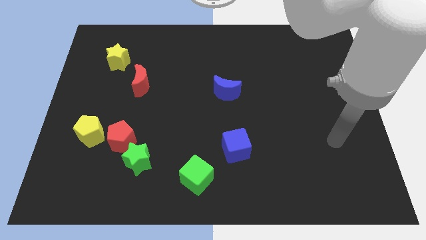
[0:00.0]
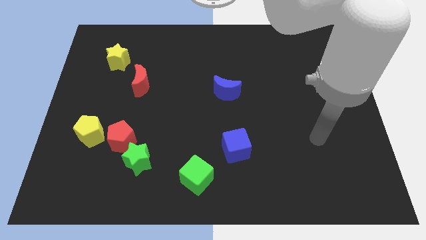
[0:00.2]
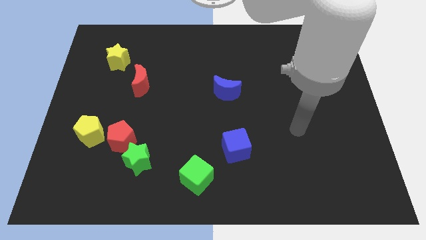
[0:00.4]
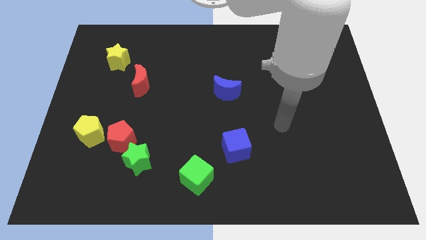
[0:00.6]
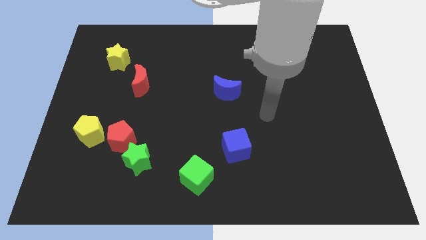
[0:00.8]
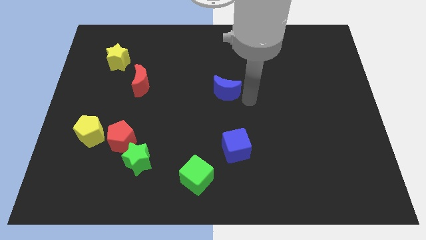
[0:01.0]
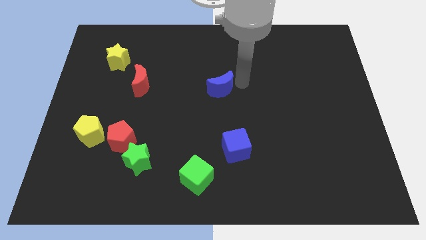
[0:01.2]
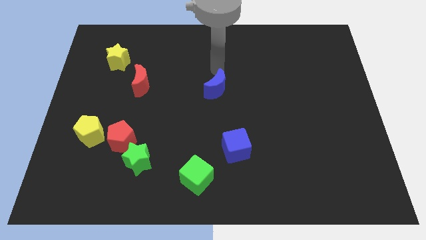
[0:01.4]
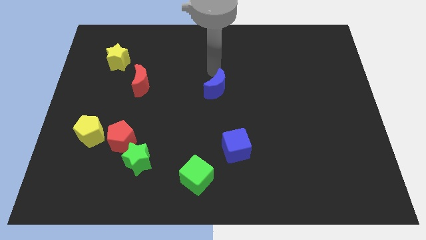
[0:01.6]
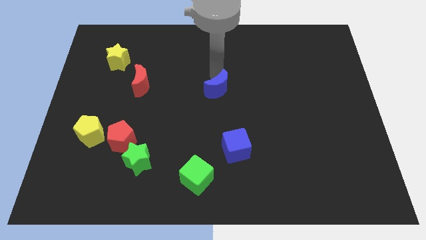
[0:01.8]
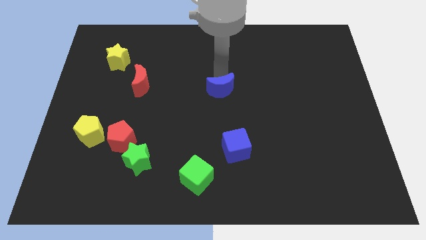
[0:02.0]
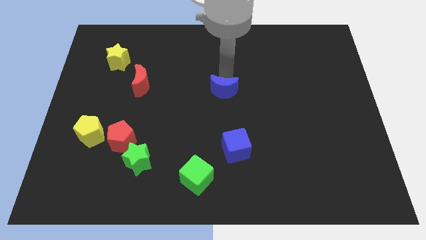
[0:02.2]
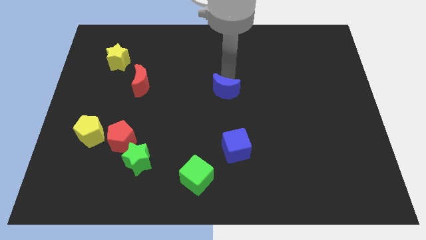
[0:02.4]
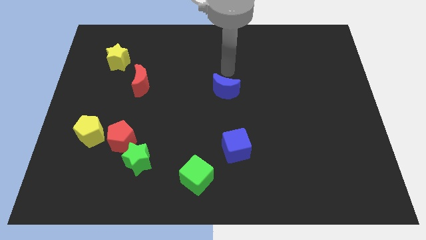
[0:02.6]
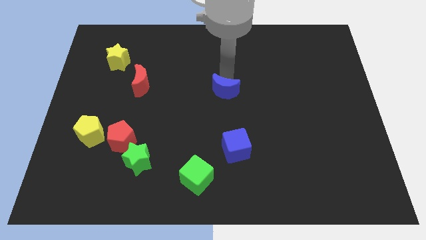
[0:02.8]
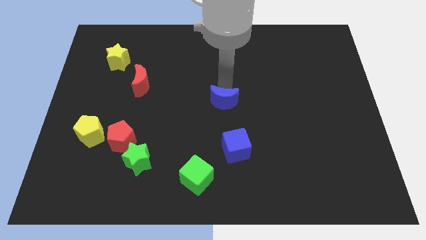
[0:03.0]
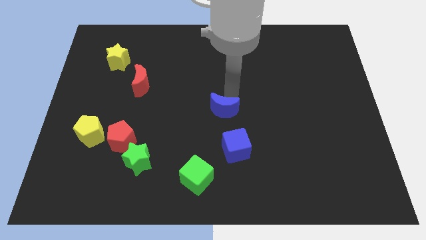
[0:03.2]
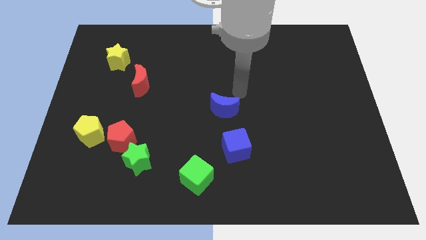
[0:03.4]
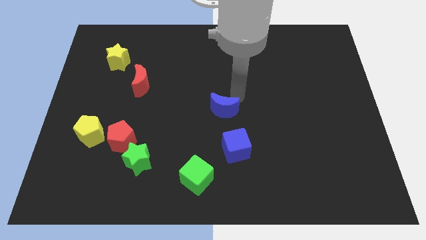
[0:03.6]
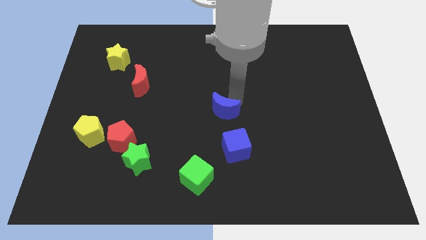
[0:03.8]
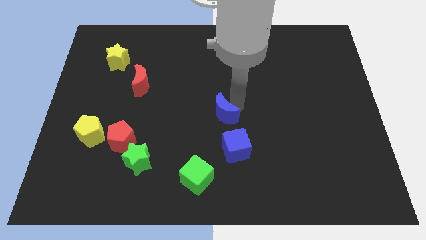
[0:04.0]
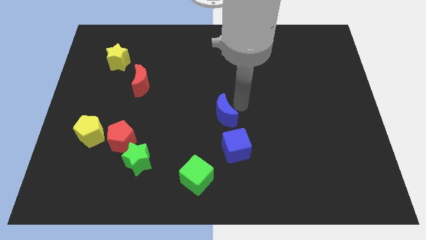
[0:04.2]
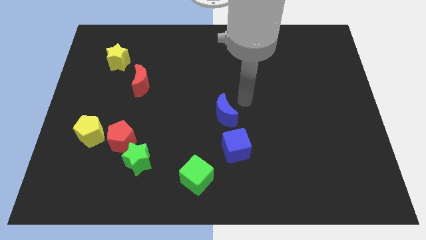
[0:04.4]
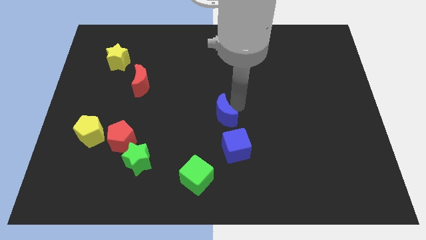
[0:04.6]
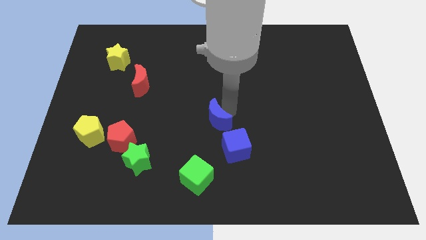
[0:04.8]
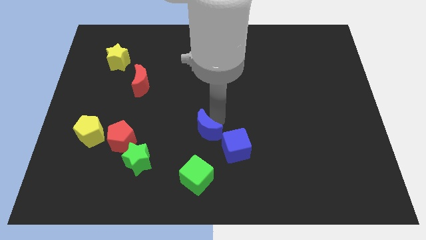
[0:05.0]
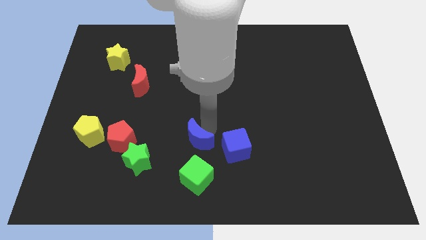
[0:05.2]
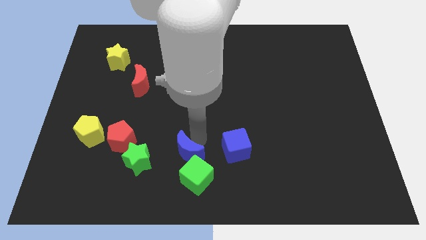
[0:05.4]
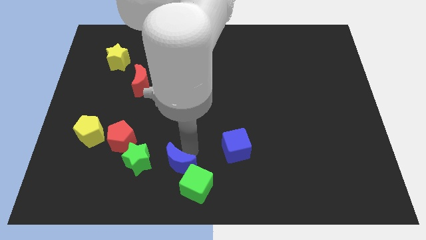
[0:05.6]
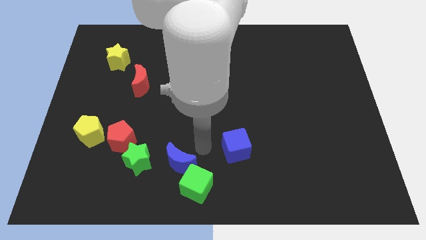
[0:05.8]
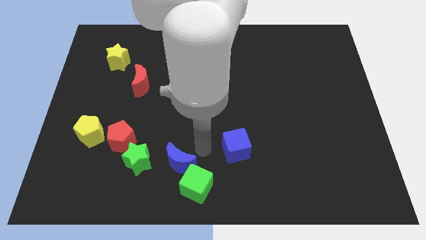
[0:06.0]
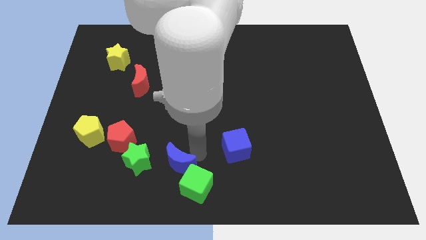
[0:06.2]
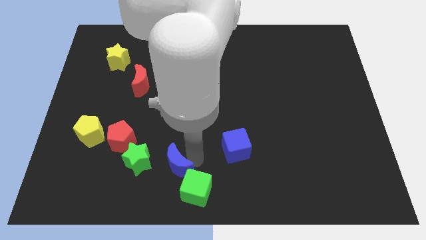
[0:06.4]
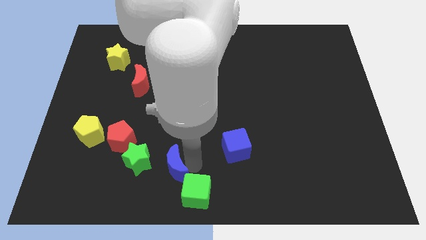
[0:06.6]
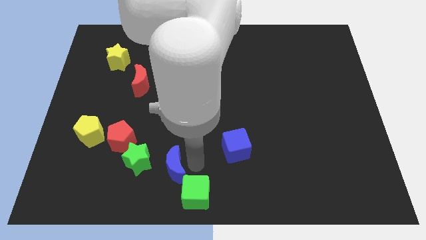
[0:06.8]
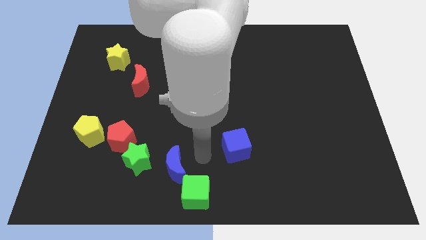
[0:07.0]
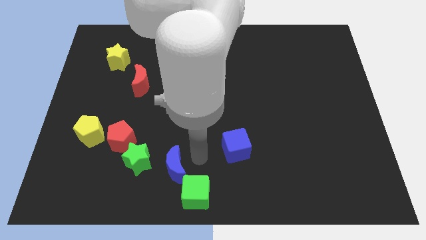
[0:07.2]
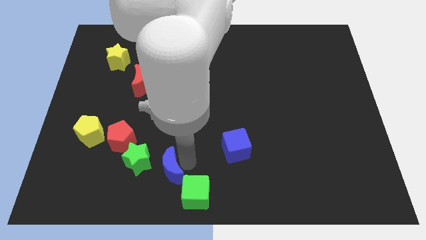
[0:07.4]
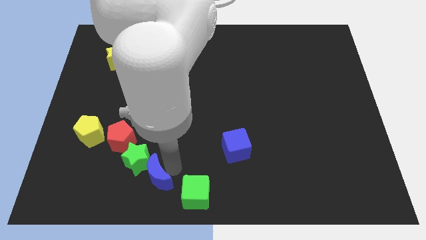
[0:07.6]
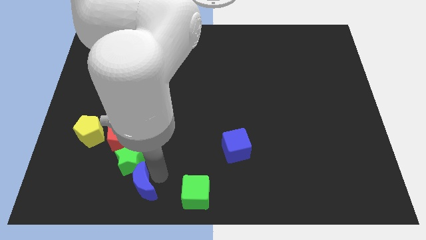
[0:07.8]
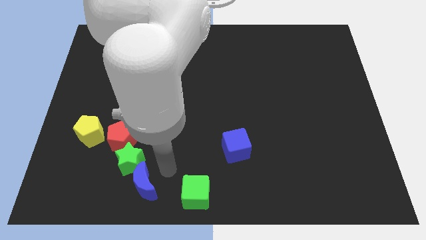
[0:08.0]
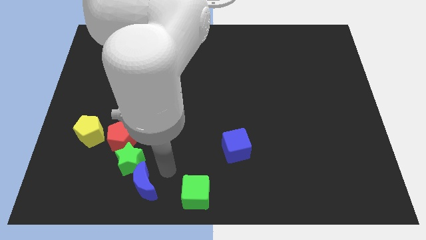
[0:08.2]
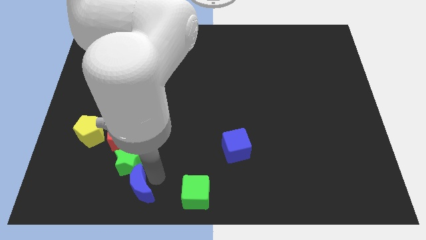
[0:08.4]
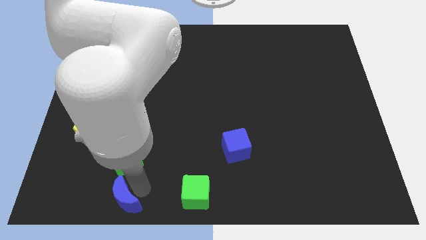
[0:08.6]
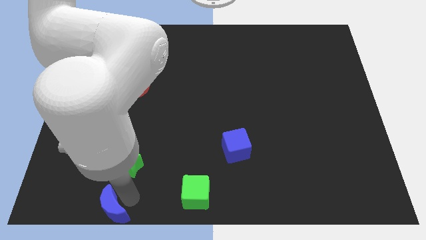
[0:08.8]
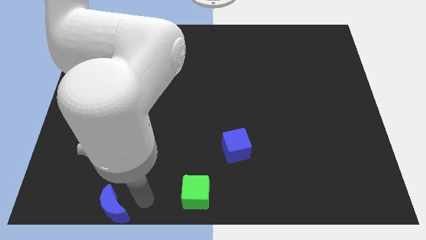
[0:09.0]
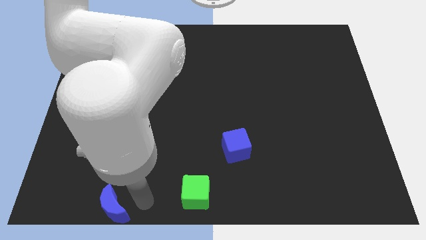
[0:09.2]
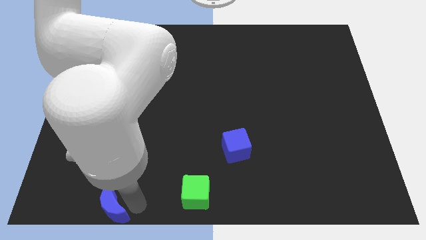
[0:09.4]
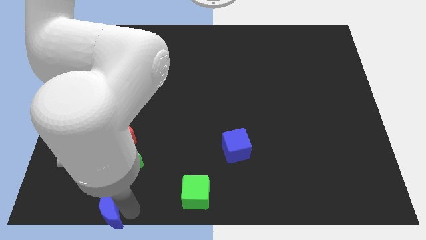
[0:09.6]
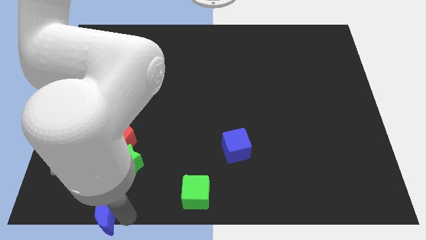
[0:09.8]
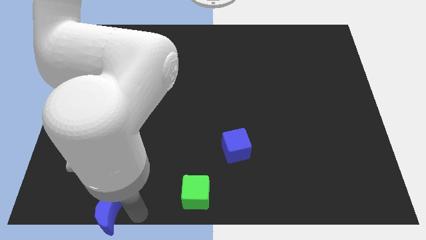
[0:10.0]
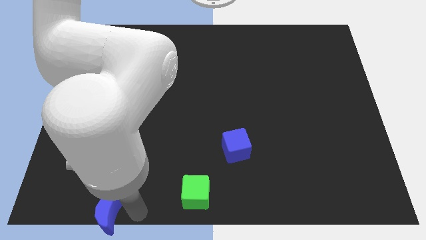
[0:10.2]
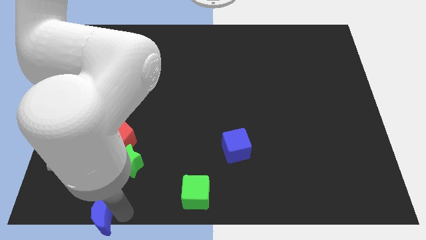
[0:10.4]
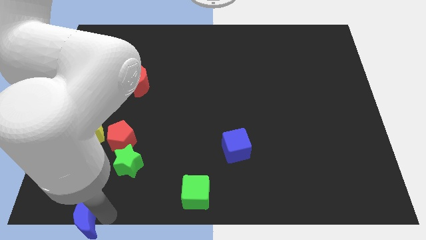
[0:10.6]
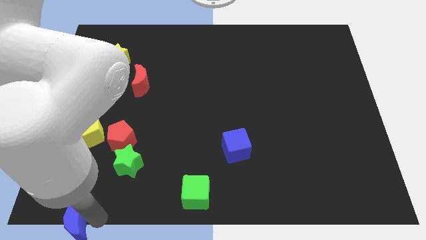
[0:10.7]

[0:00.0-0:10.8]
put the blue moon to the bottom left corner
